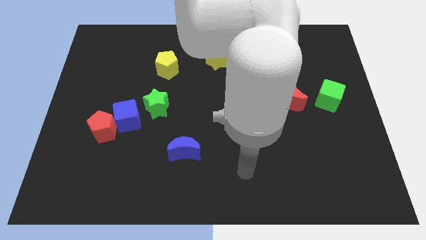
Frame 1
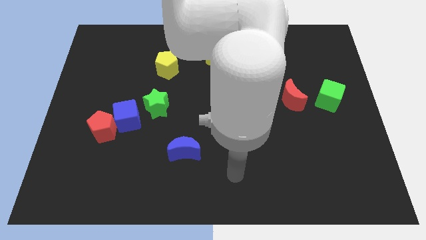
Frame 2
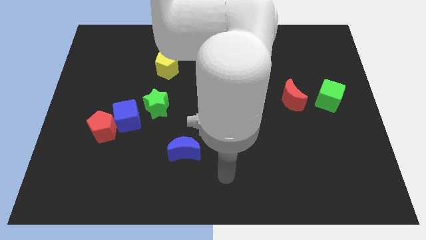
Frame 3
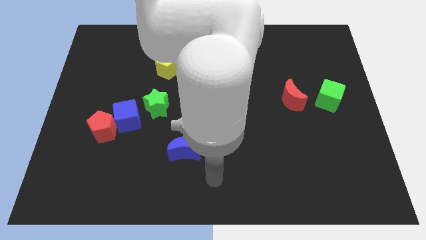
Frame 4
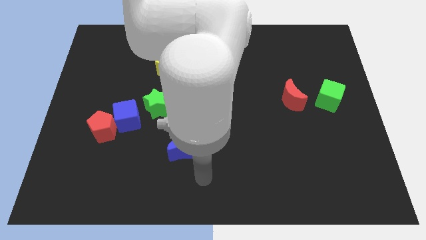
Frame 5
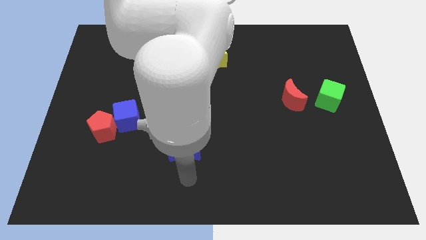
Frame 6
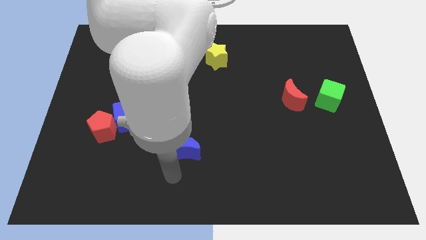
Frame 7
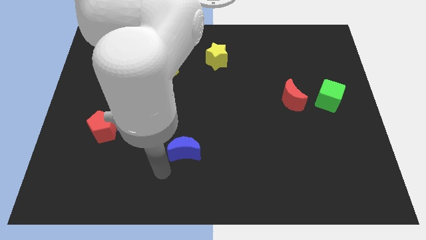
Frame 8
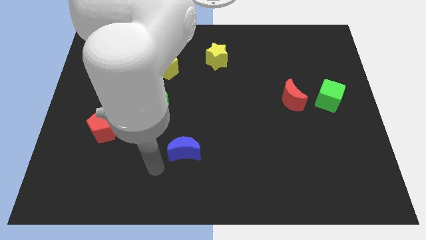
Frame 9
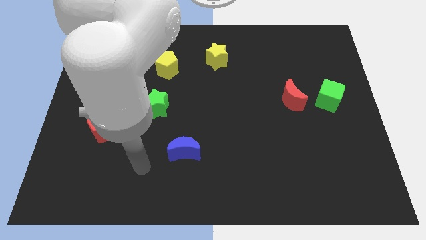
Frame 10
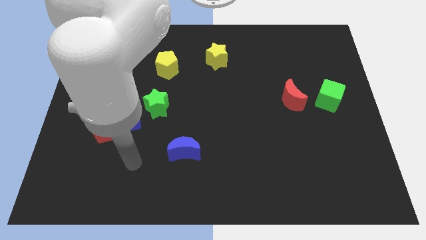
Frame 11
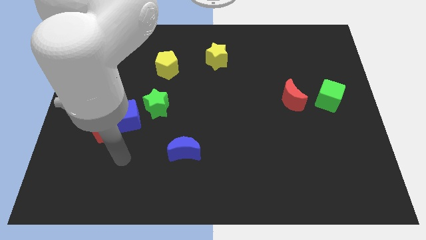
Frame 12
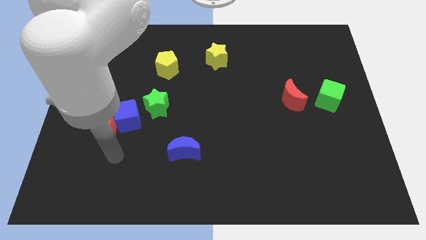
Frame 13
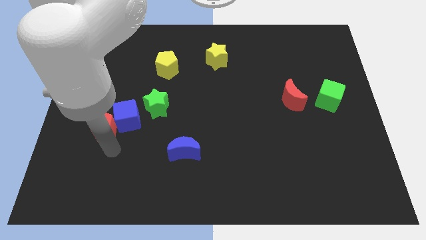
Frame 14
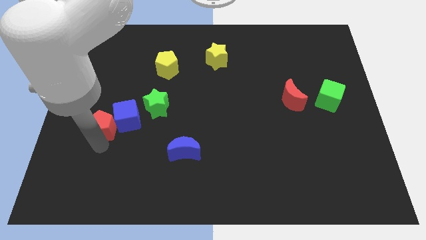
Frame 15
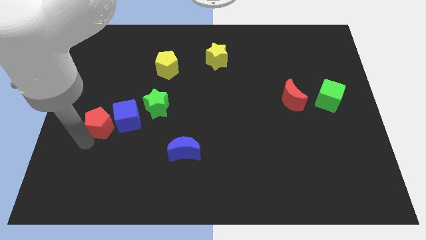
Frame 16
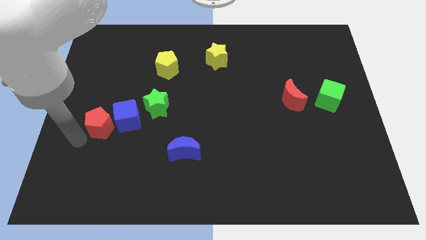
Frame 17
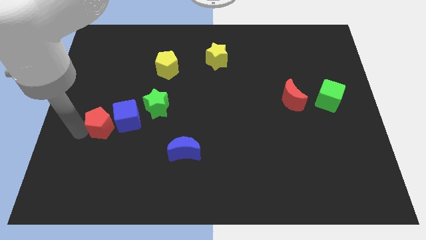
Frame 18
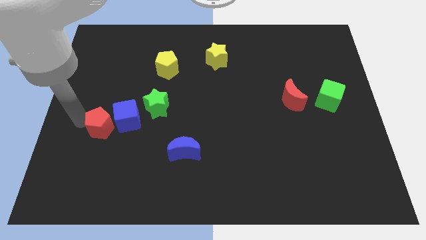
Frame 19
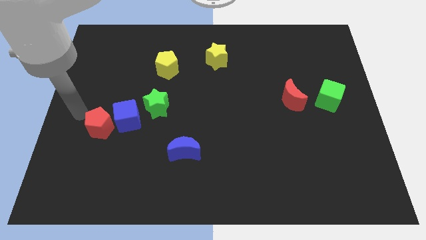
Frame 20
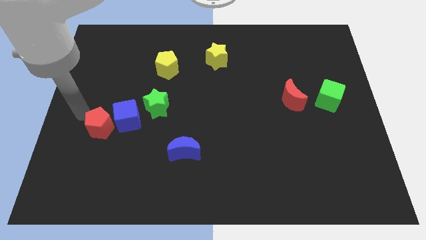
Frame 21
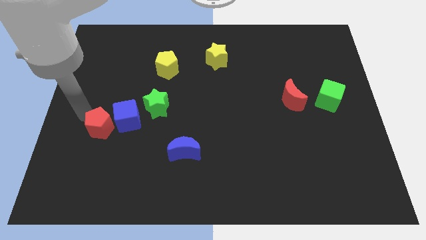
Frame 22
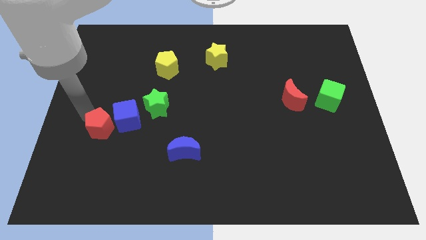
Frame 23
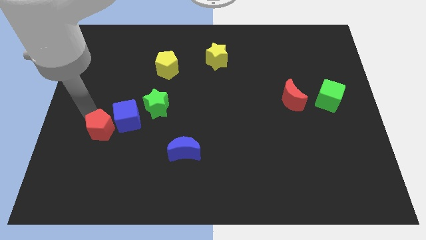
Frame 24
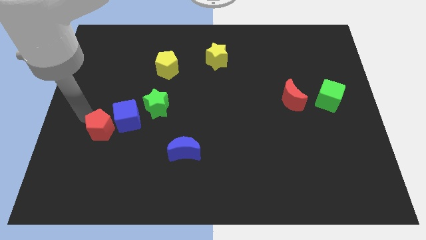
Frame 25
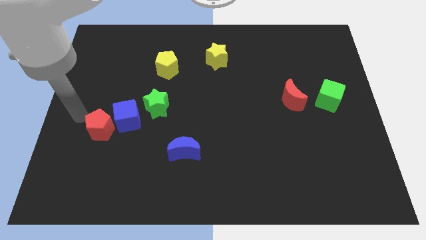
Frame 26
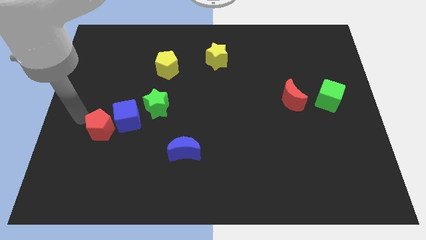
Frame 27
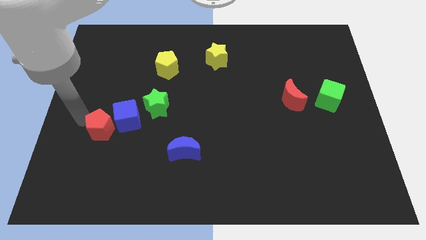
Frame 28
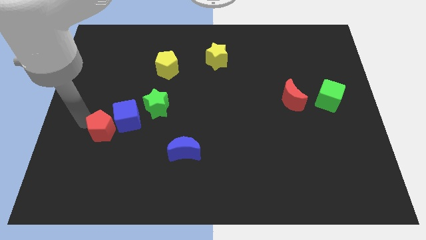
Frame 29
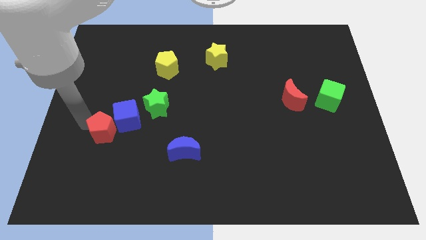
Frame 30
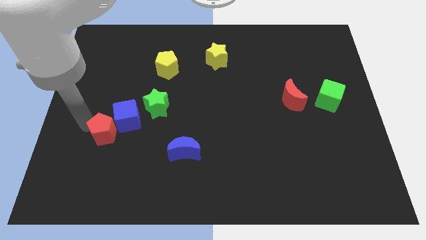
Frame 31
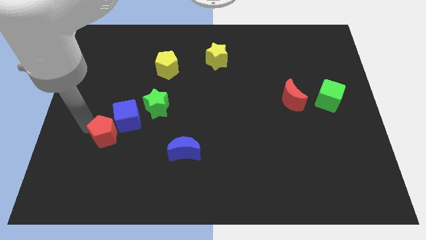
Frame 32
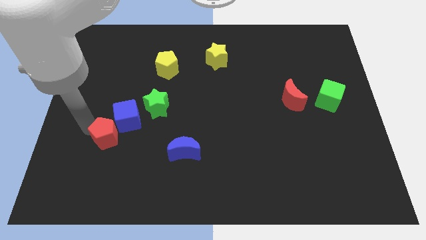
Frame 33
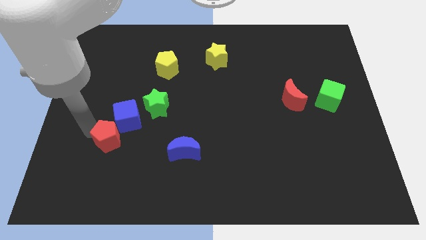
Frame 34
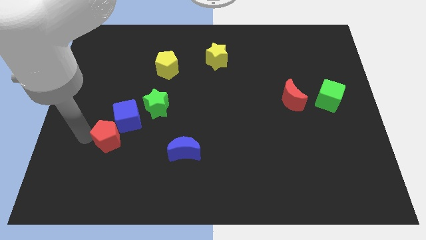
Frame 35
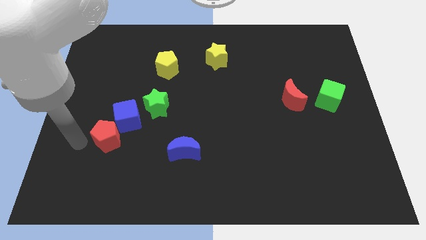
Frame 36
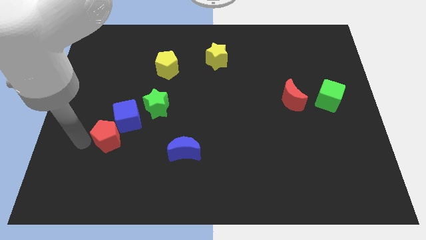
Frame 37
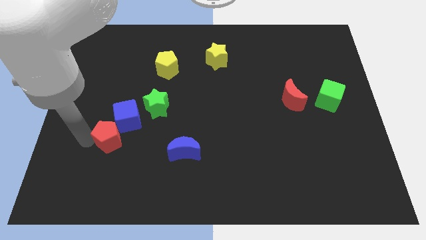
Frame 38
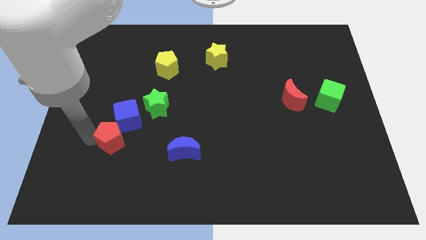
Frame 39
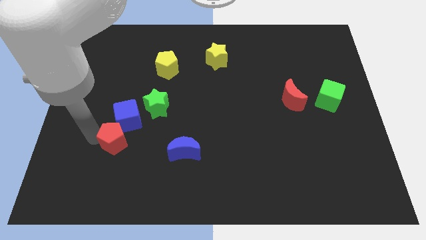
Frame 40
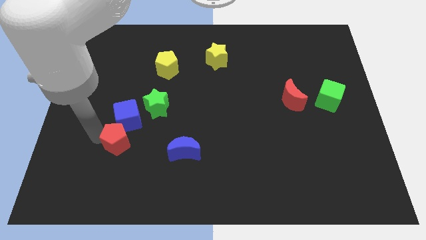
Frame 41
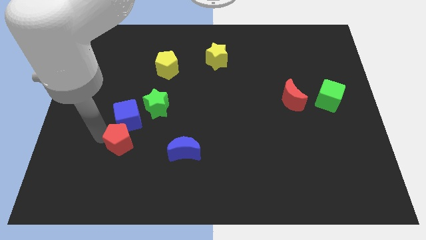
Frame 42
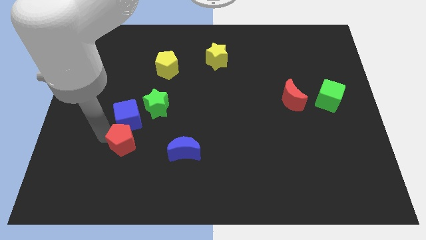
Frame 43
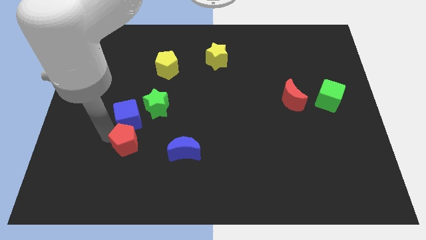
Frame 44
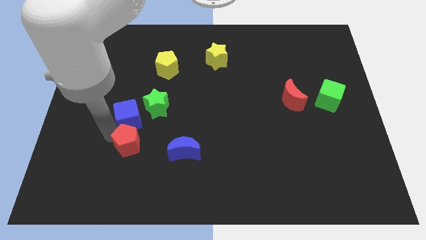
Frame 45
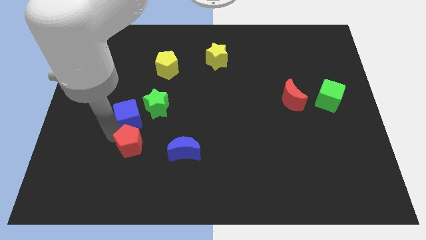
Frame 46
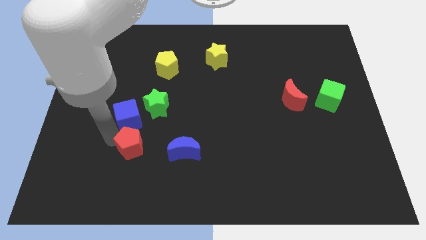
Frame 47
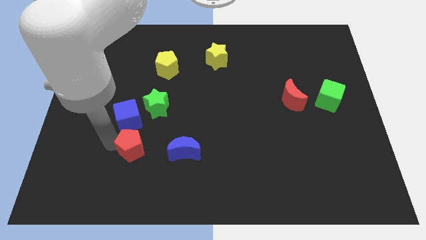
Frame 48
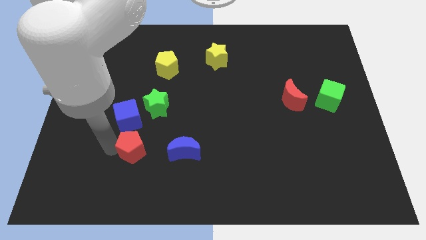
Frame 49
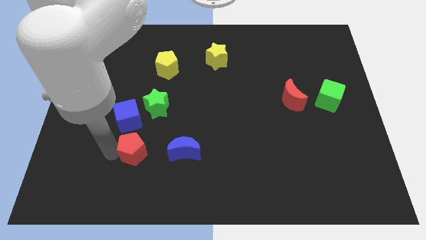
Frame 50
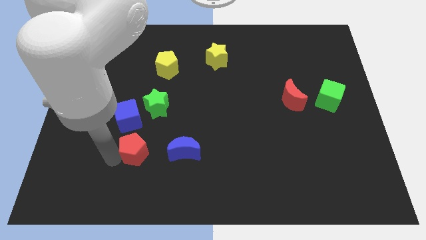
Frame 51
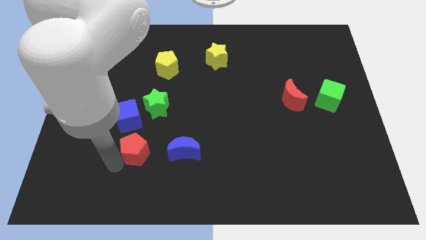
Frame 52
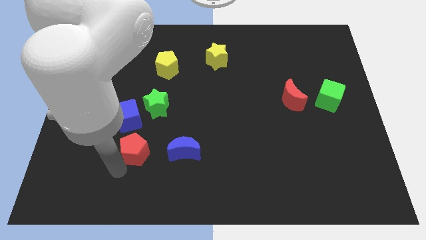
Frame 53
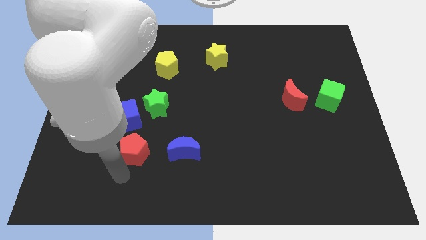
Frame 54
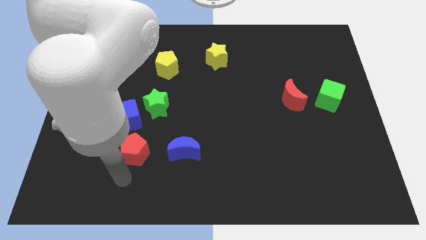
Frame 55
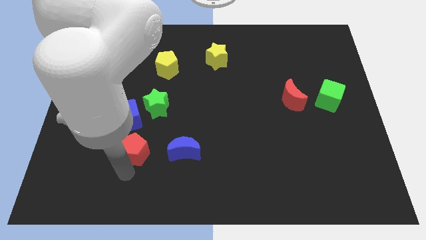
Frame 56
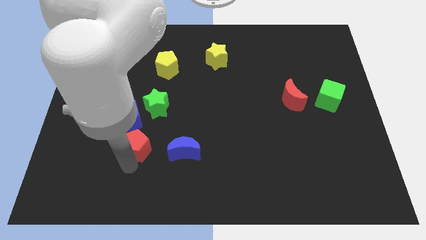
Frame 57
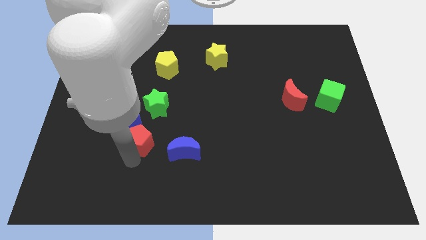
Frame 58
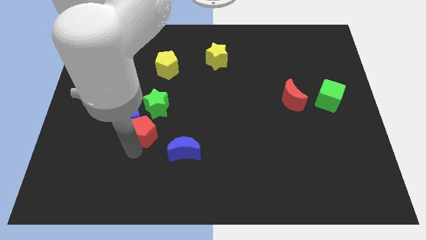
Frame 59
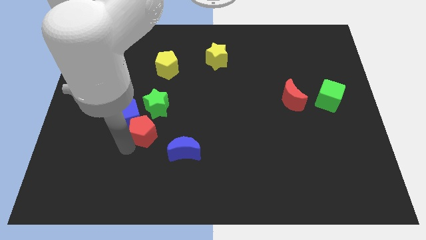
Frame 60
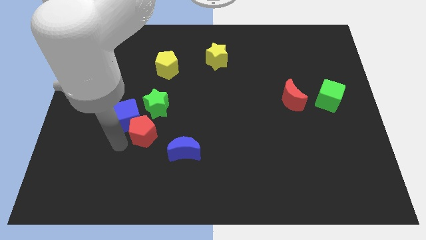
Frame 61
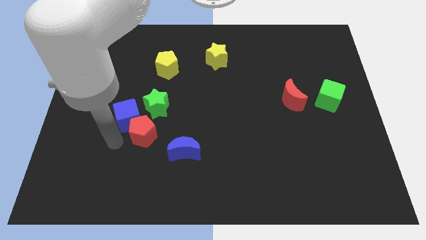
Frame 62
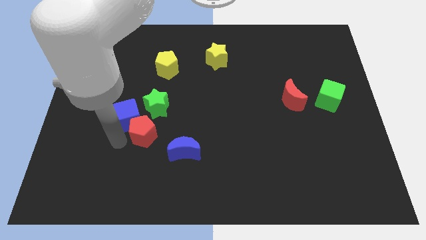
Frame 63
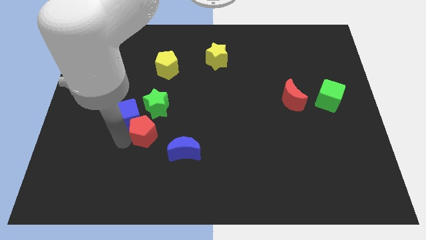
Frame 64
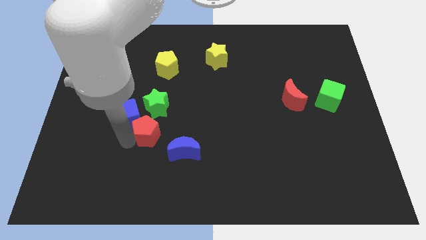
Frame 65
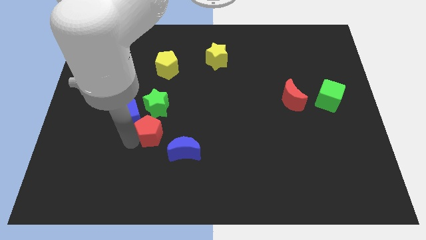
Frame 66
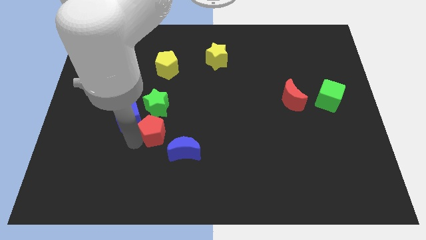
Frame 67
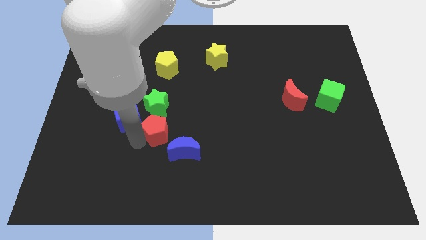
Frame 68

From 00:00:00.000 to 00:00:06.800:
push the red pentagon to the bottom right side of the green star
